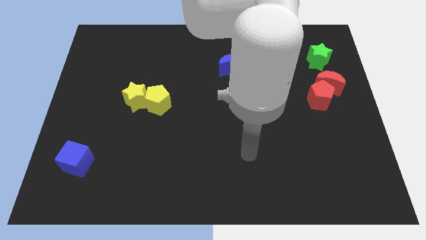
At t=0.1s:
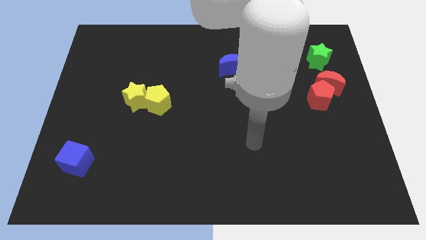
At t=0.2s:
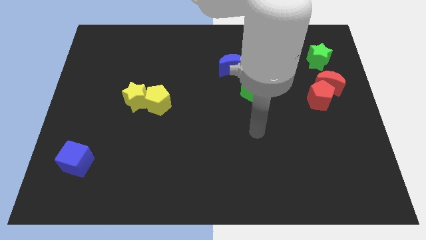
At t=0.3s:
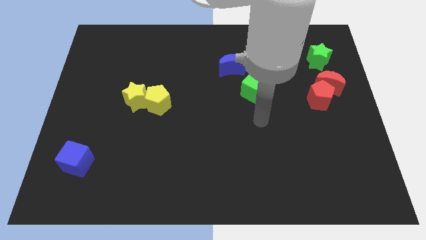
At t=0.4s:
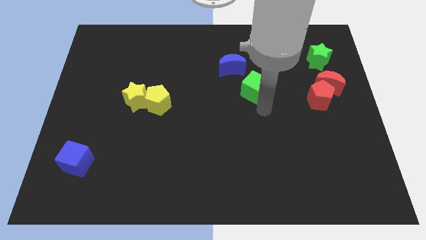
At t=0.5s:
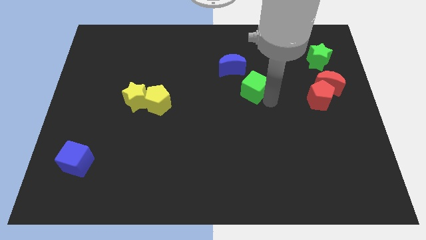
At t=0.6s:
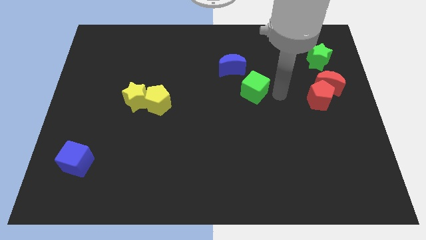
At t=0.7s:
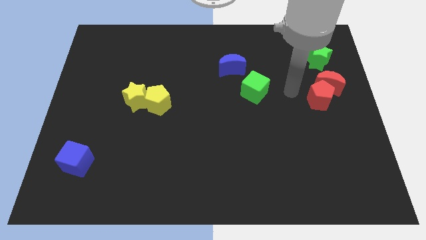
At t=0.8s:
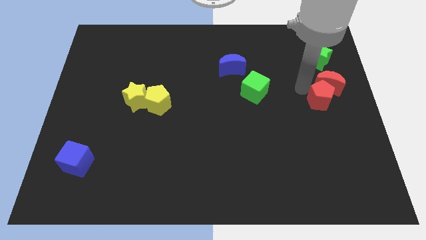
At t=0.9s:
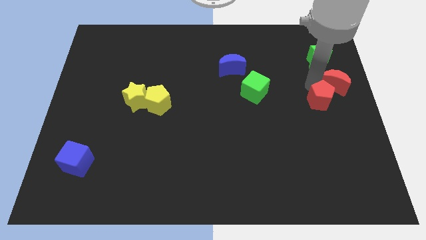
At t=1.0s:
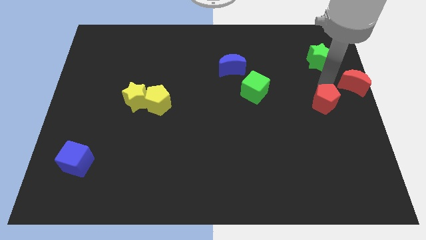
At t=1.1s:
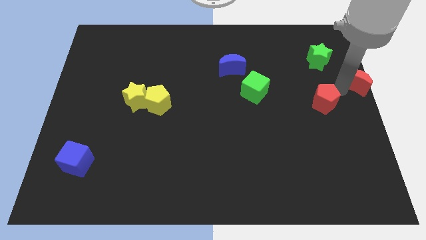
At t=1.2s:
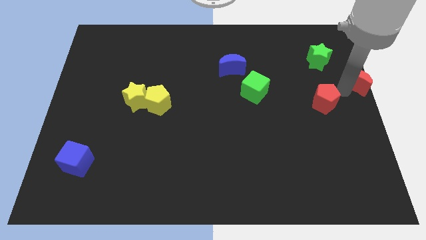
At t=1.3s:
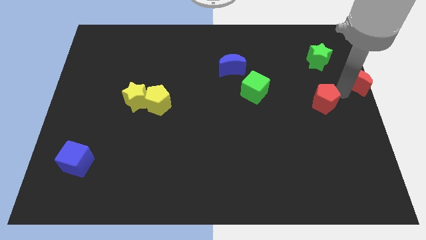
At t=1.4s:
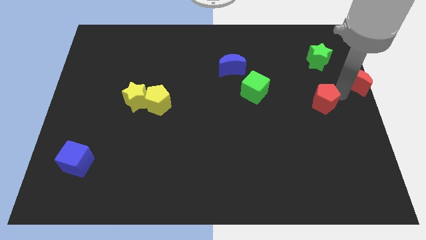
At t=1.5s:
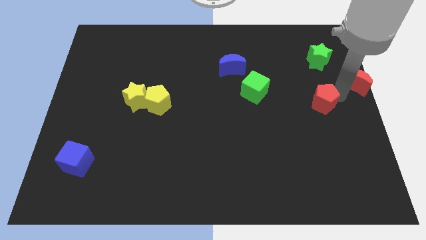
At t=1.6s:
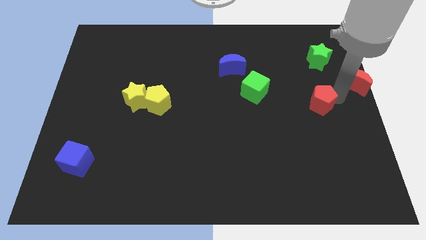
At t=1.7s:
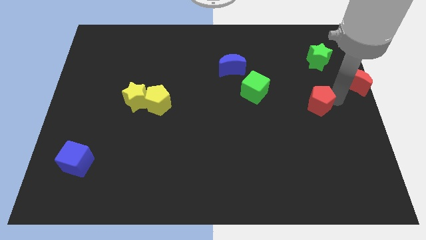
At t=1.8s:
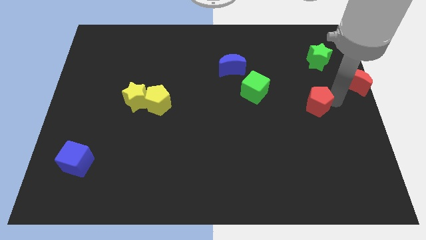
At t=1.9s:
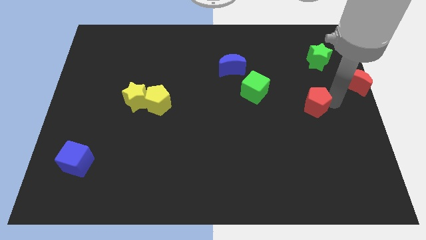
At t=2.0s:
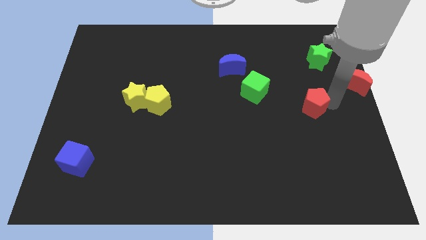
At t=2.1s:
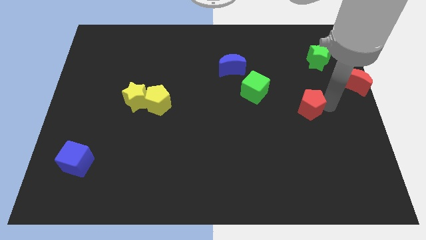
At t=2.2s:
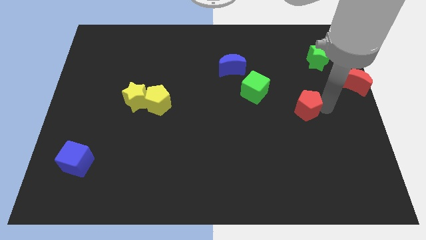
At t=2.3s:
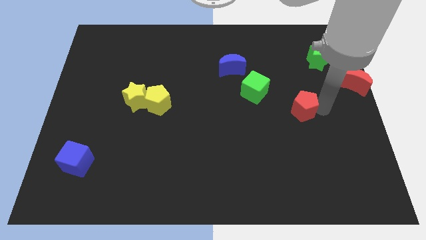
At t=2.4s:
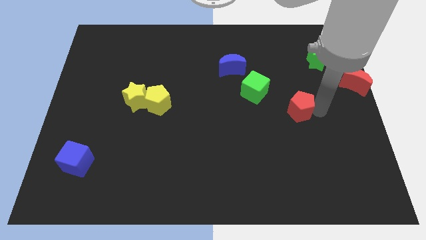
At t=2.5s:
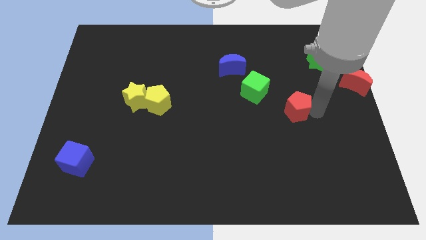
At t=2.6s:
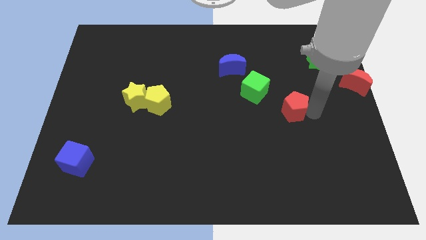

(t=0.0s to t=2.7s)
slightly slide the red pentagon diagonally down and to the left

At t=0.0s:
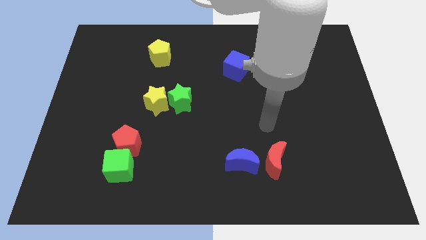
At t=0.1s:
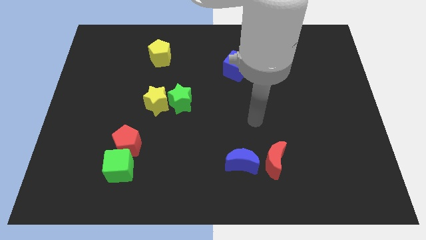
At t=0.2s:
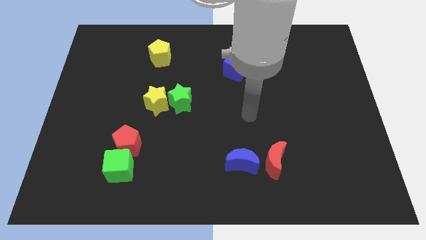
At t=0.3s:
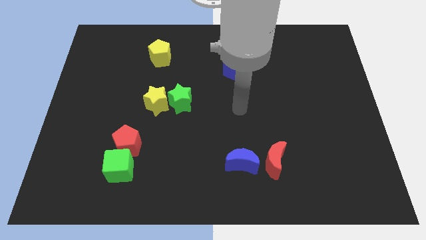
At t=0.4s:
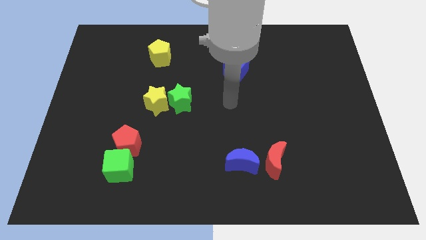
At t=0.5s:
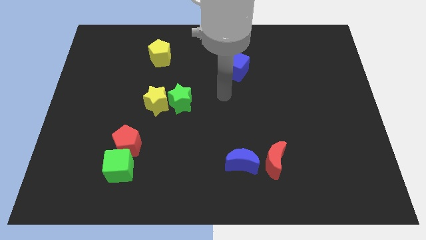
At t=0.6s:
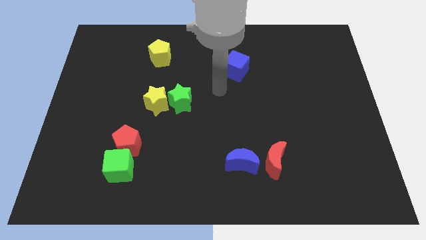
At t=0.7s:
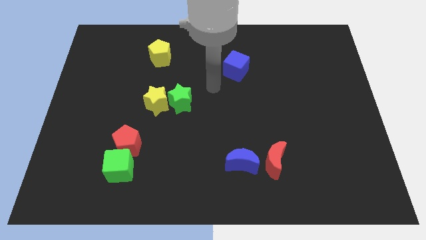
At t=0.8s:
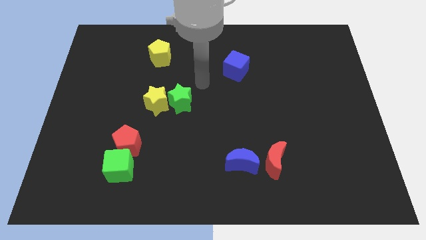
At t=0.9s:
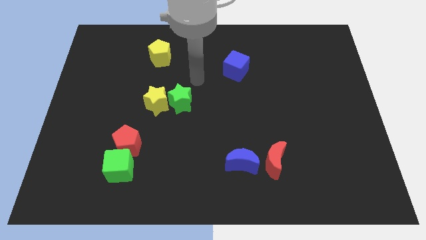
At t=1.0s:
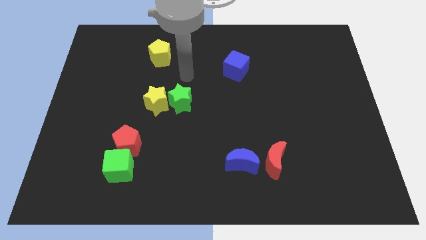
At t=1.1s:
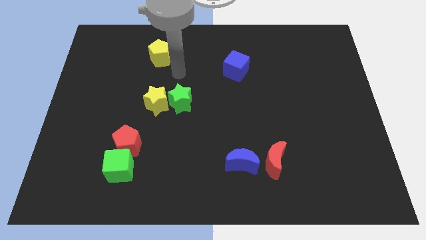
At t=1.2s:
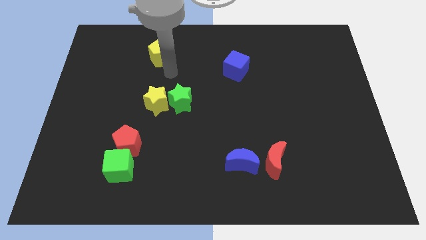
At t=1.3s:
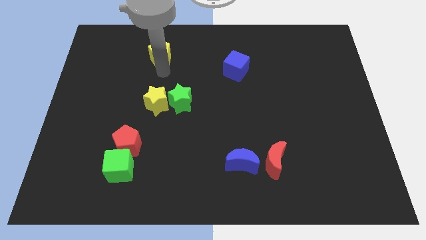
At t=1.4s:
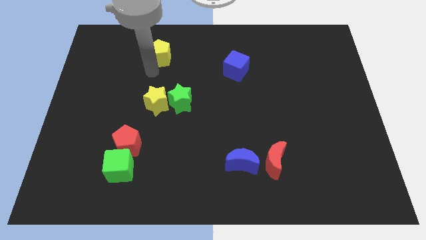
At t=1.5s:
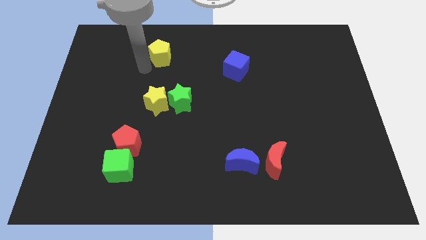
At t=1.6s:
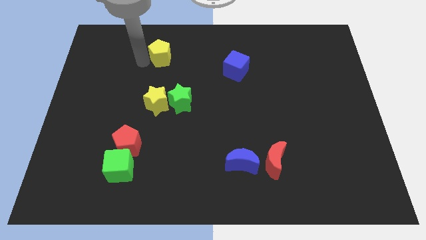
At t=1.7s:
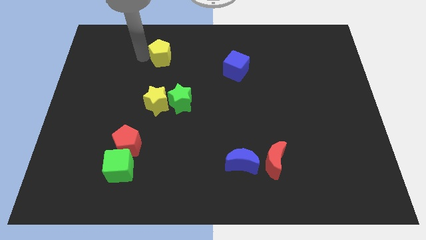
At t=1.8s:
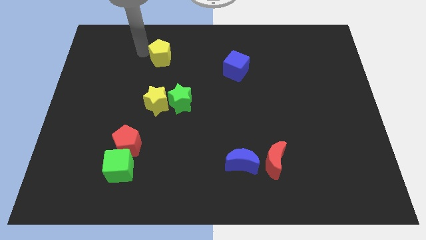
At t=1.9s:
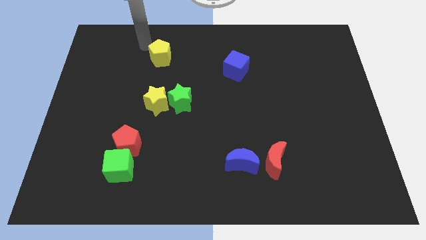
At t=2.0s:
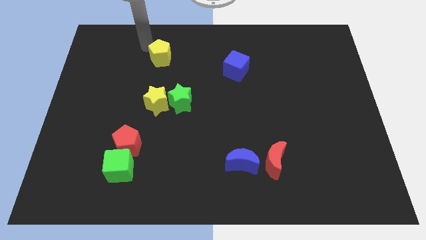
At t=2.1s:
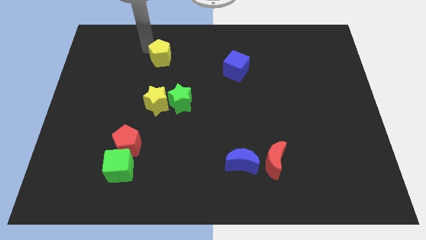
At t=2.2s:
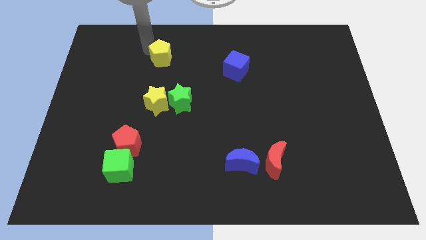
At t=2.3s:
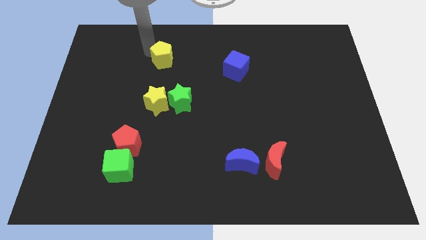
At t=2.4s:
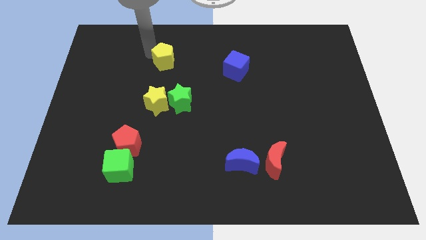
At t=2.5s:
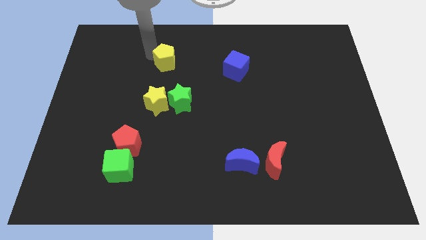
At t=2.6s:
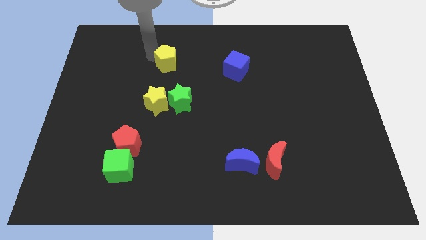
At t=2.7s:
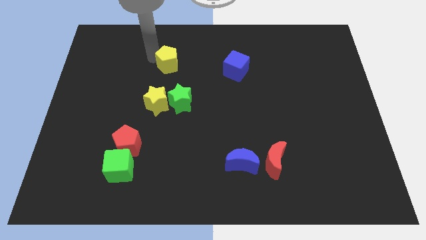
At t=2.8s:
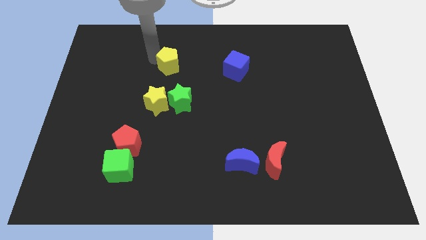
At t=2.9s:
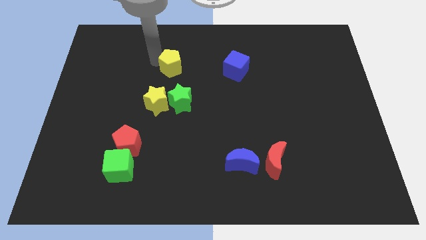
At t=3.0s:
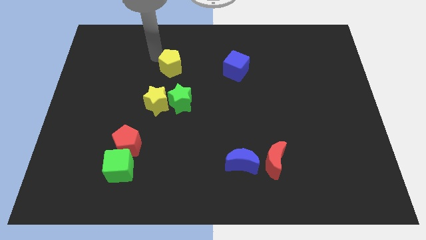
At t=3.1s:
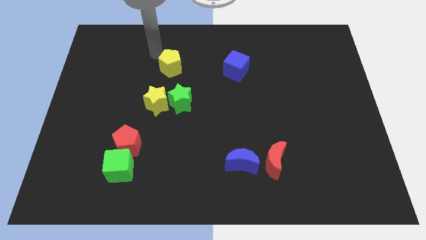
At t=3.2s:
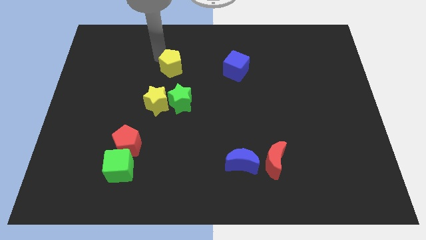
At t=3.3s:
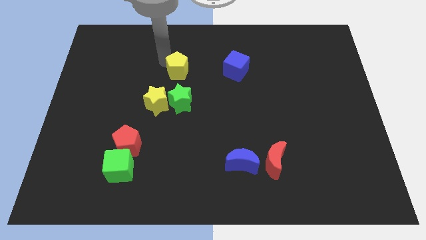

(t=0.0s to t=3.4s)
slide the yellow pentagon down and right diagonally a little

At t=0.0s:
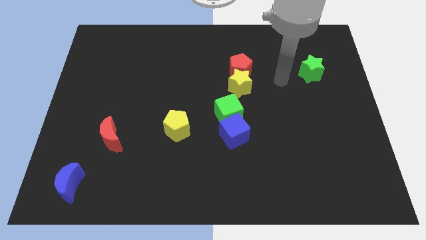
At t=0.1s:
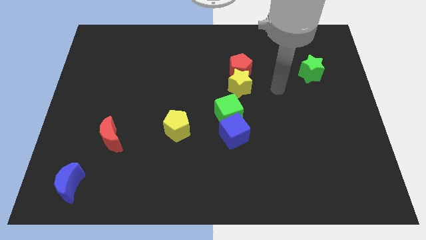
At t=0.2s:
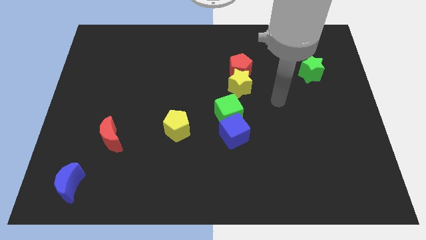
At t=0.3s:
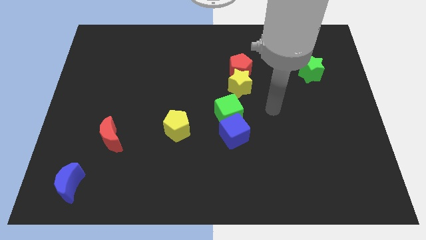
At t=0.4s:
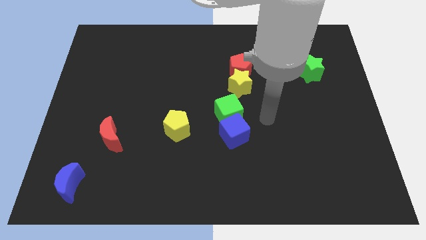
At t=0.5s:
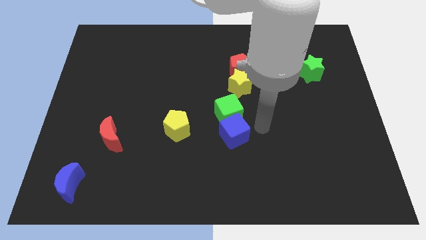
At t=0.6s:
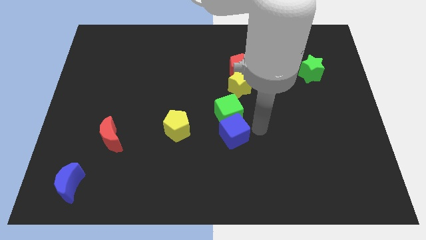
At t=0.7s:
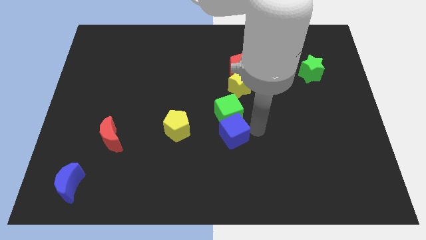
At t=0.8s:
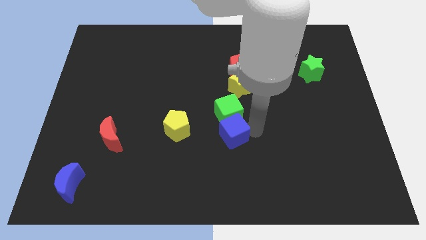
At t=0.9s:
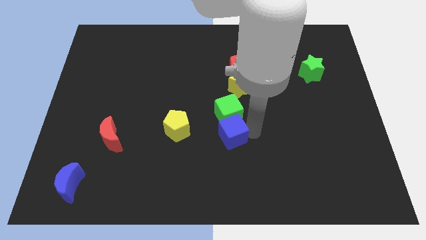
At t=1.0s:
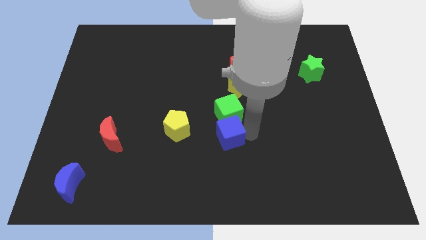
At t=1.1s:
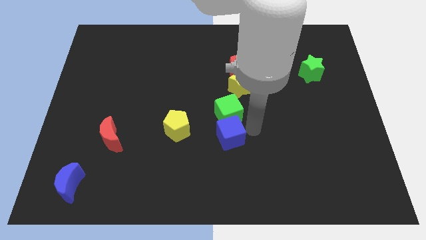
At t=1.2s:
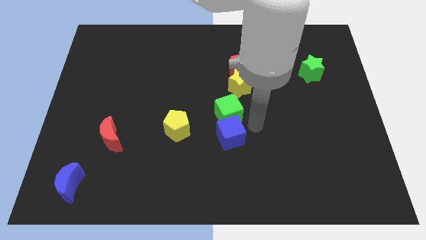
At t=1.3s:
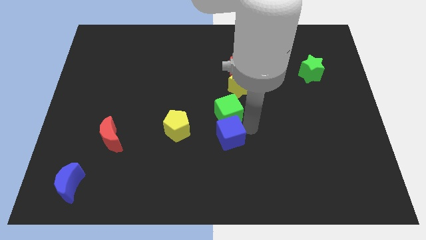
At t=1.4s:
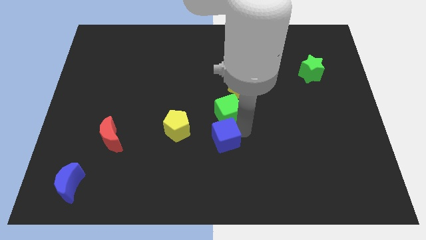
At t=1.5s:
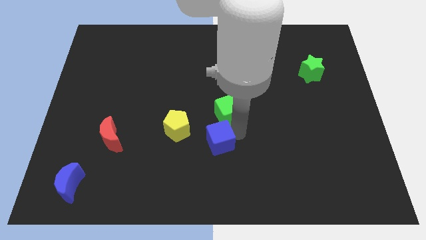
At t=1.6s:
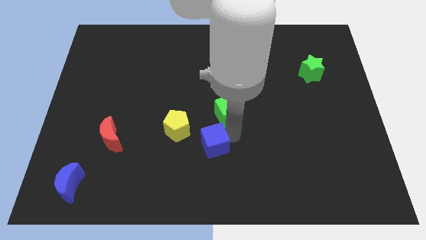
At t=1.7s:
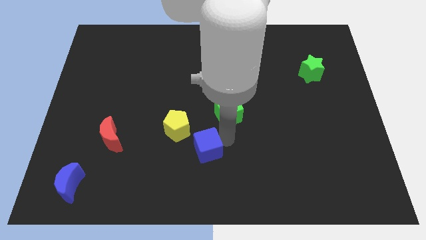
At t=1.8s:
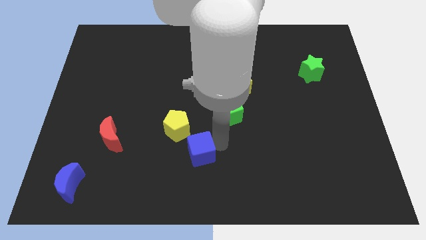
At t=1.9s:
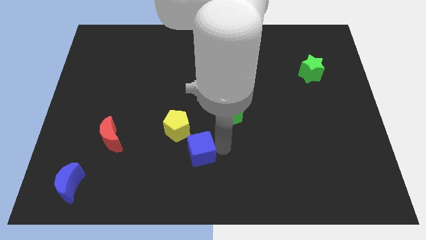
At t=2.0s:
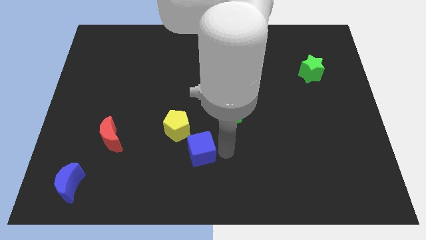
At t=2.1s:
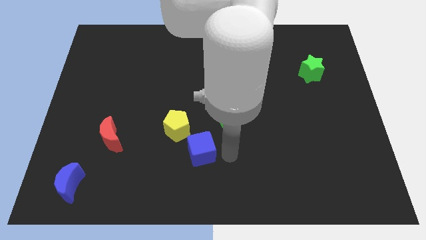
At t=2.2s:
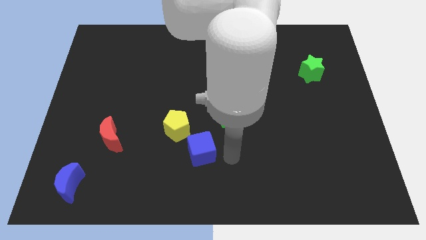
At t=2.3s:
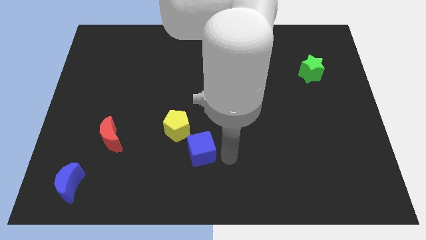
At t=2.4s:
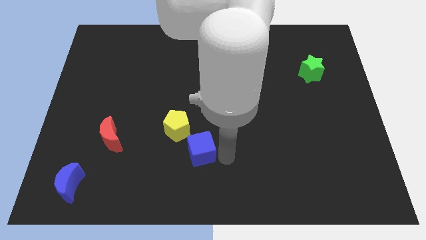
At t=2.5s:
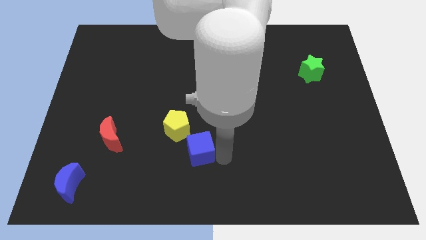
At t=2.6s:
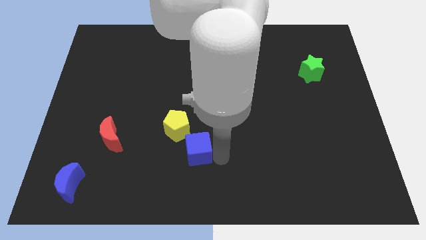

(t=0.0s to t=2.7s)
slide the blue cube to the left somewhat
